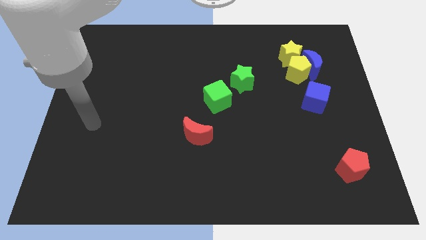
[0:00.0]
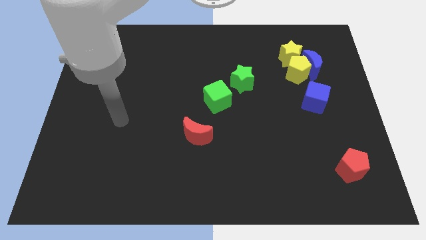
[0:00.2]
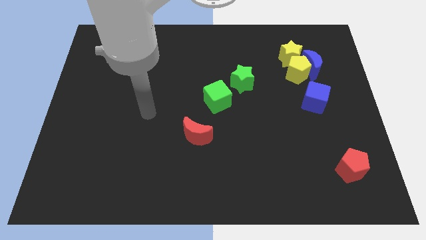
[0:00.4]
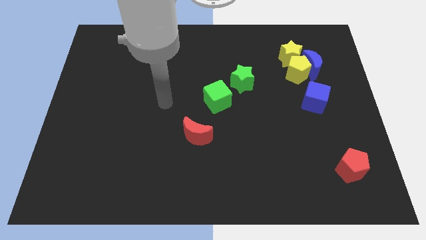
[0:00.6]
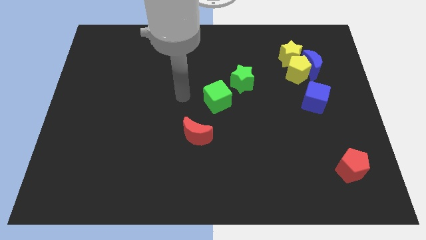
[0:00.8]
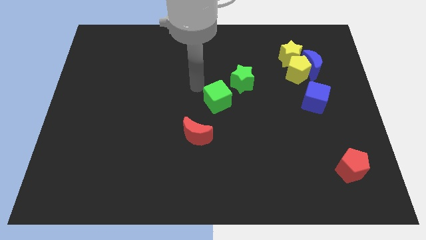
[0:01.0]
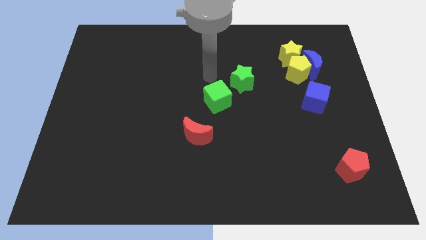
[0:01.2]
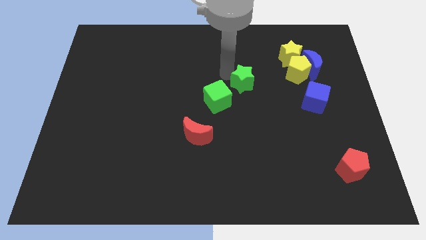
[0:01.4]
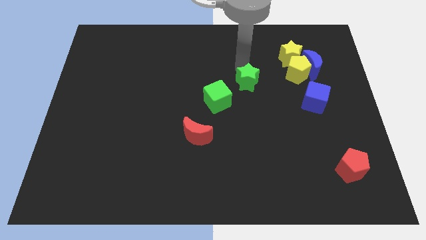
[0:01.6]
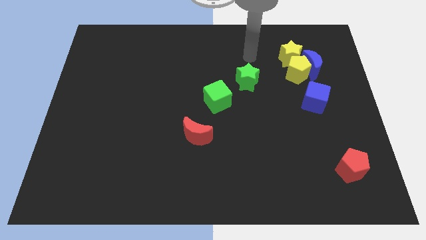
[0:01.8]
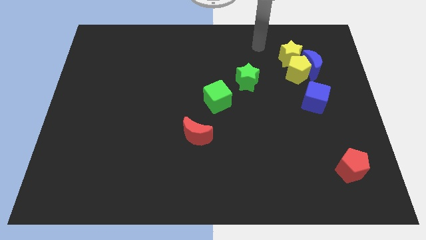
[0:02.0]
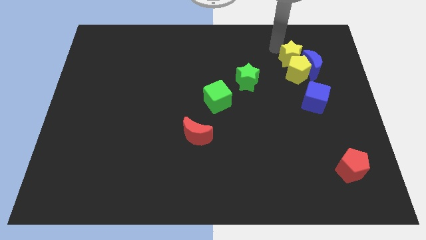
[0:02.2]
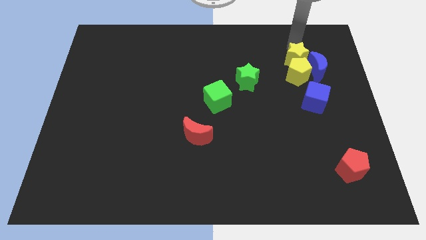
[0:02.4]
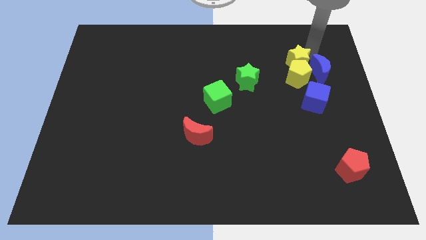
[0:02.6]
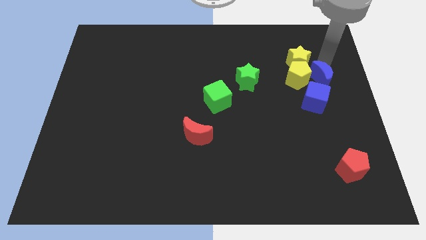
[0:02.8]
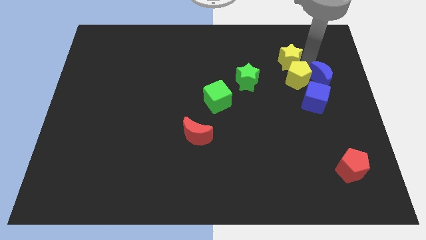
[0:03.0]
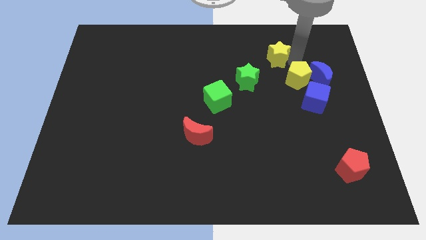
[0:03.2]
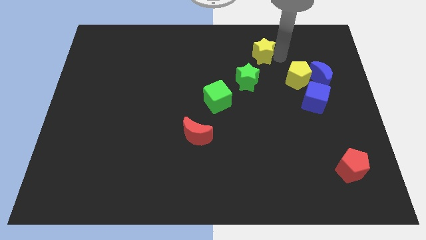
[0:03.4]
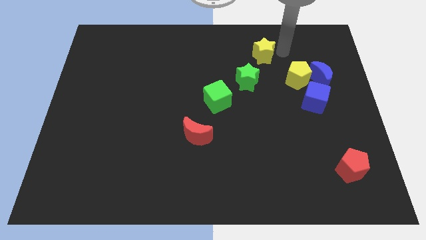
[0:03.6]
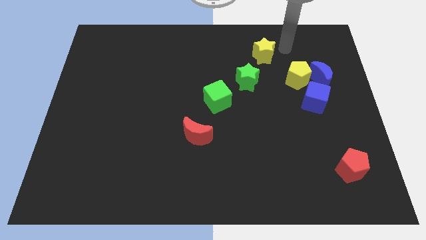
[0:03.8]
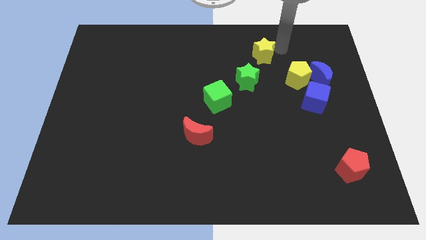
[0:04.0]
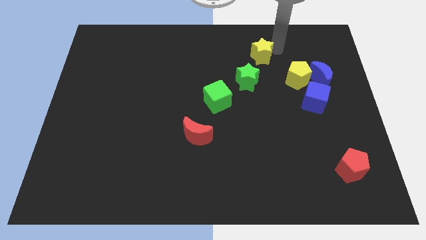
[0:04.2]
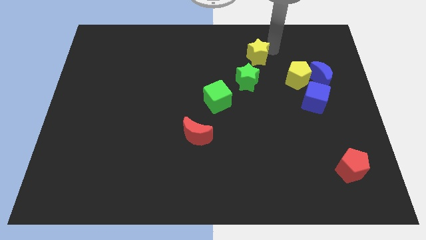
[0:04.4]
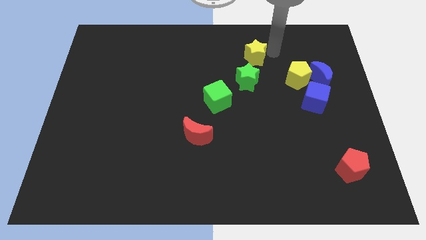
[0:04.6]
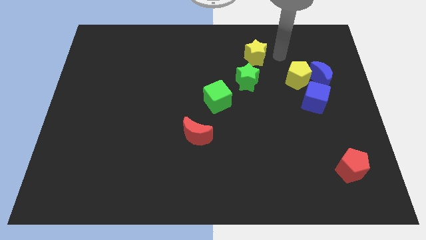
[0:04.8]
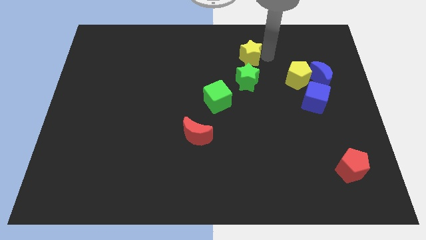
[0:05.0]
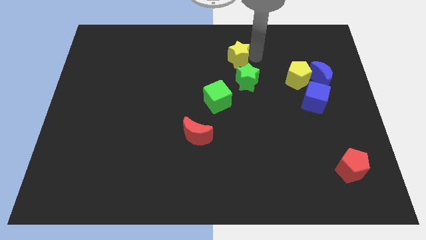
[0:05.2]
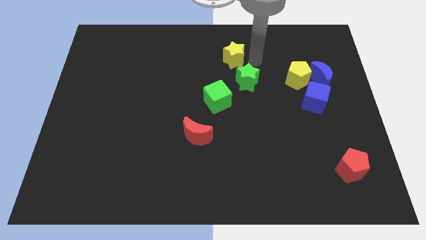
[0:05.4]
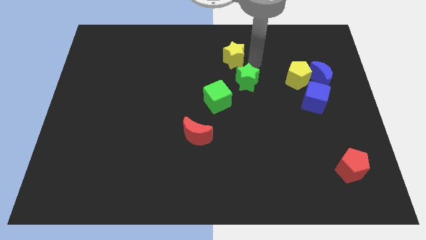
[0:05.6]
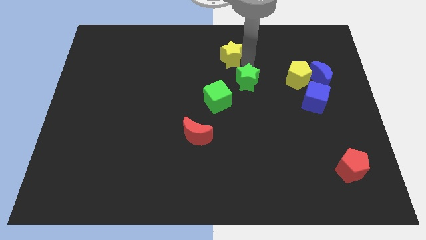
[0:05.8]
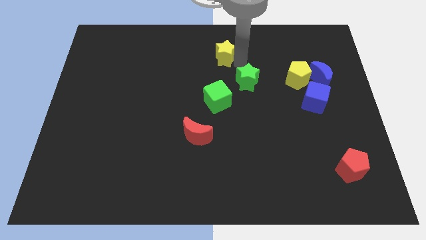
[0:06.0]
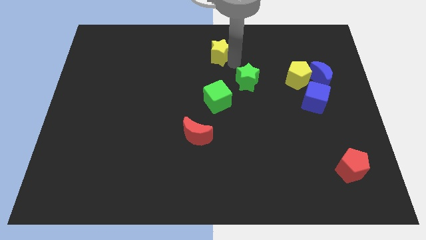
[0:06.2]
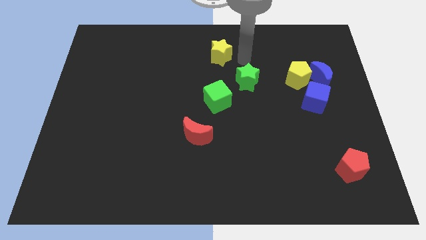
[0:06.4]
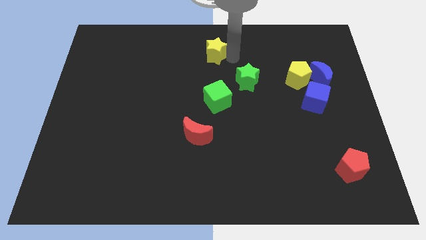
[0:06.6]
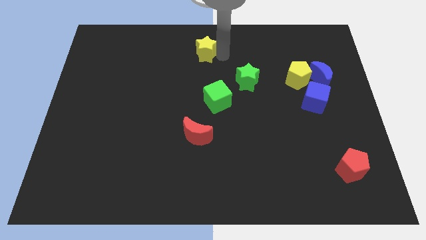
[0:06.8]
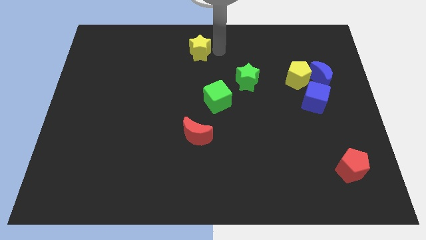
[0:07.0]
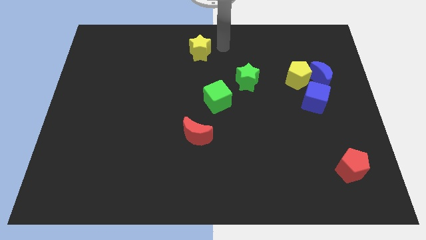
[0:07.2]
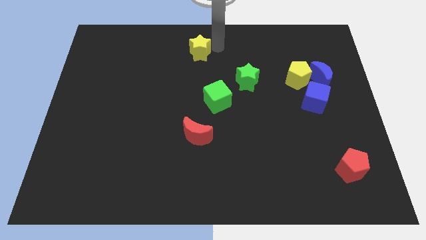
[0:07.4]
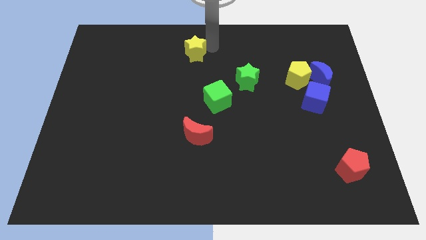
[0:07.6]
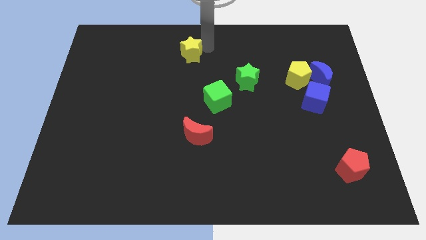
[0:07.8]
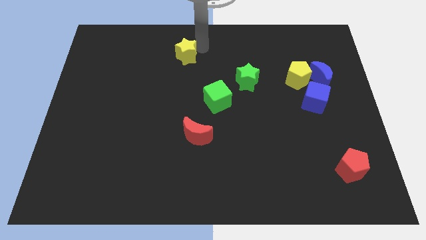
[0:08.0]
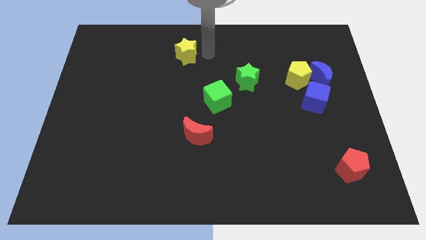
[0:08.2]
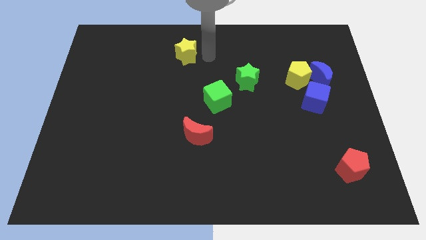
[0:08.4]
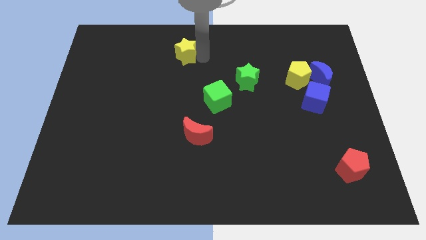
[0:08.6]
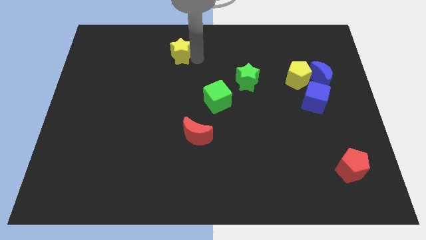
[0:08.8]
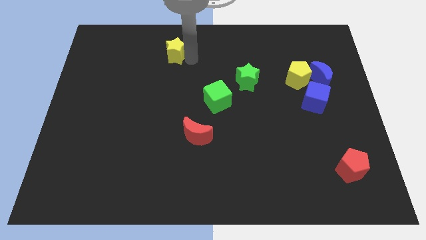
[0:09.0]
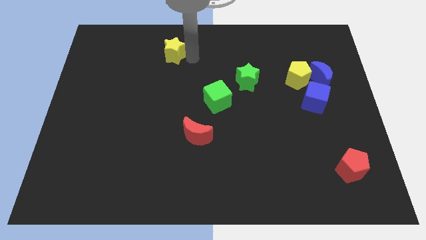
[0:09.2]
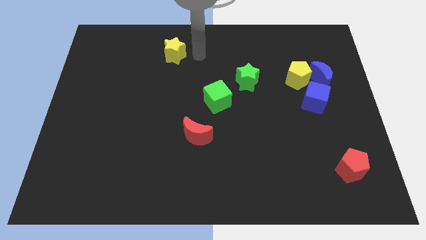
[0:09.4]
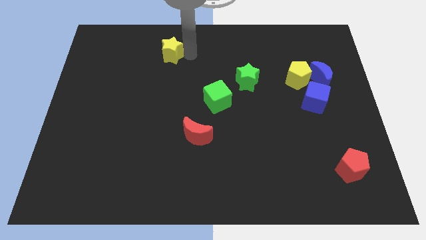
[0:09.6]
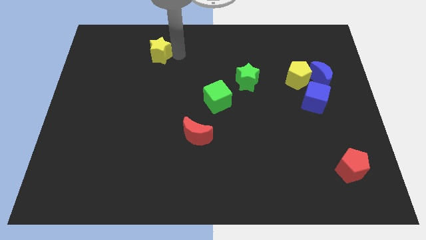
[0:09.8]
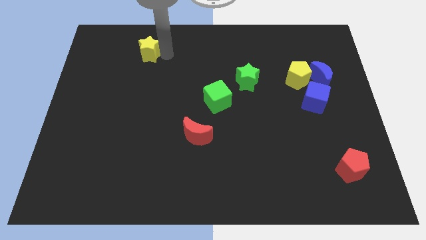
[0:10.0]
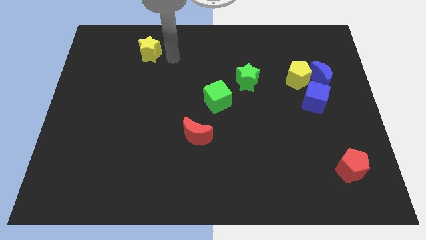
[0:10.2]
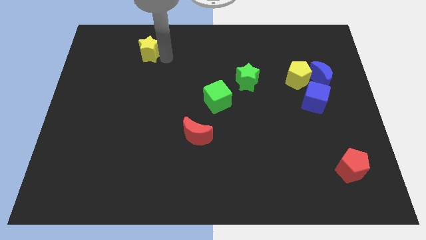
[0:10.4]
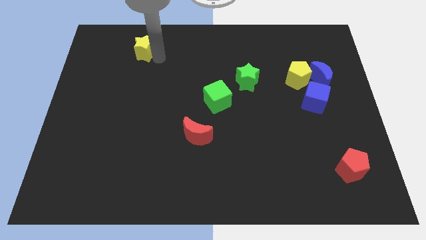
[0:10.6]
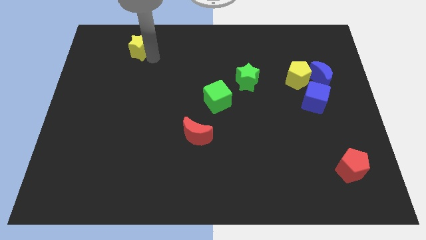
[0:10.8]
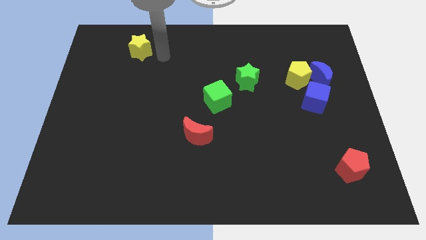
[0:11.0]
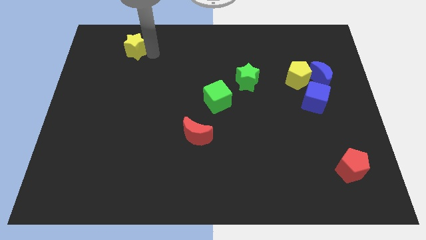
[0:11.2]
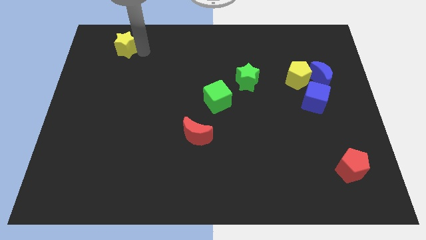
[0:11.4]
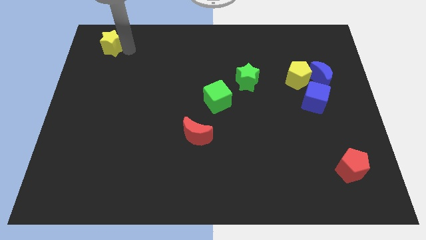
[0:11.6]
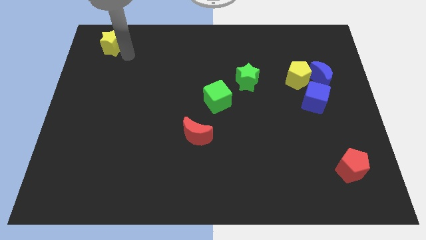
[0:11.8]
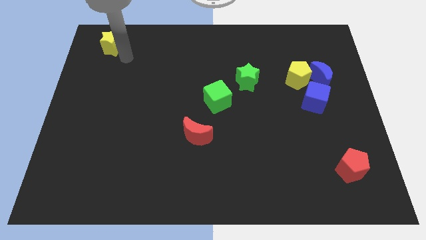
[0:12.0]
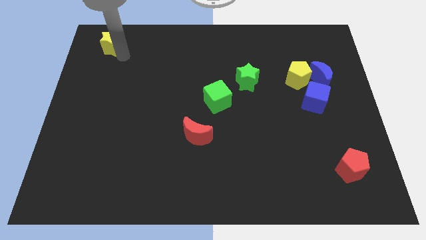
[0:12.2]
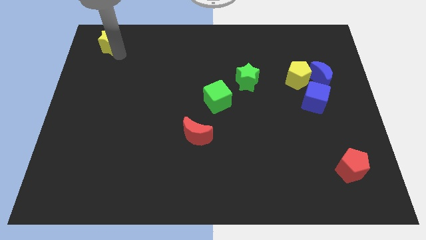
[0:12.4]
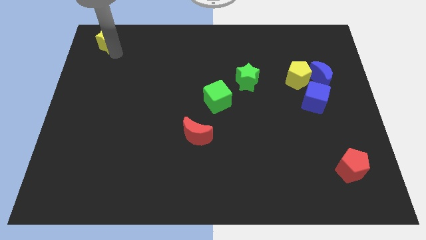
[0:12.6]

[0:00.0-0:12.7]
slide the yellow star to the top left of the board
